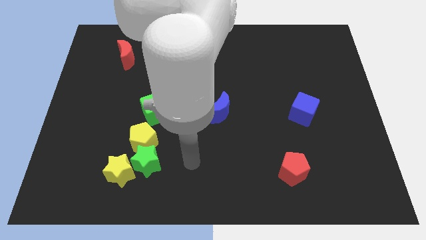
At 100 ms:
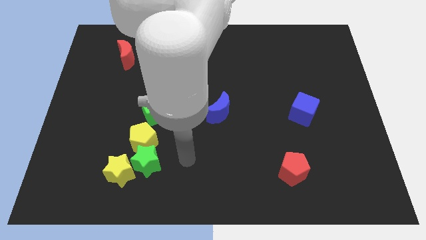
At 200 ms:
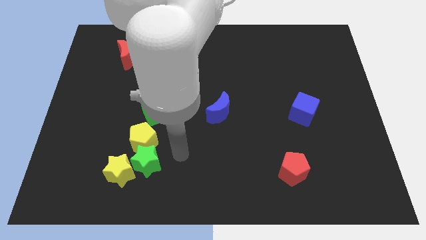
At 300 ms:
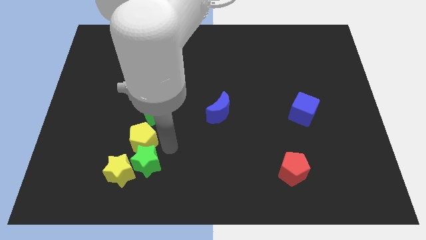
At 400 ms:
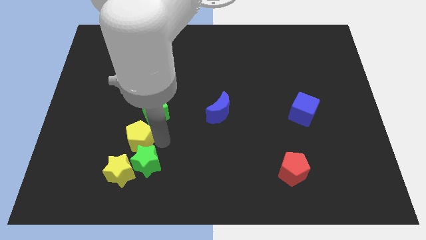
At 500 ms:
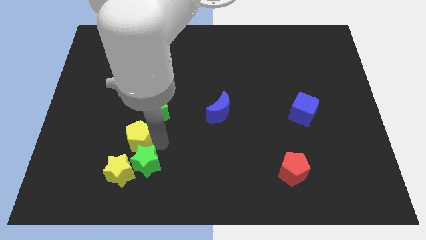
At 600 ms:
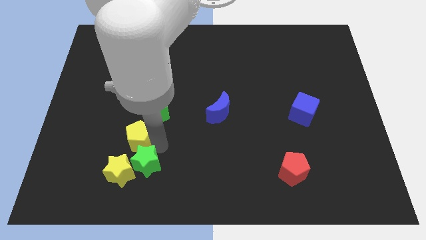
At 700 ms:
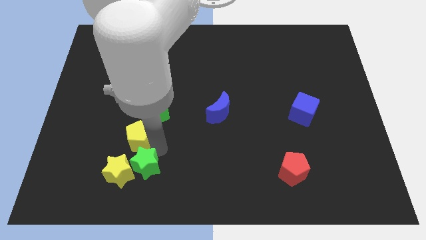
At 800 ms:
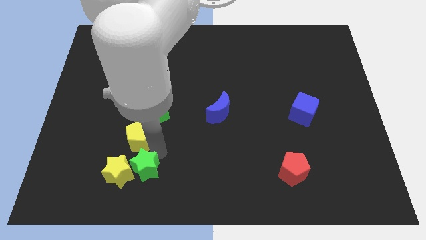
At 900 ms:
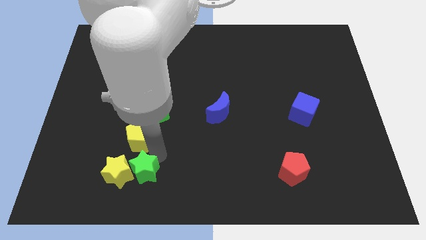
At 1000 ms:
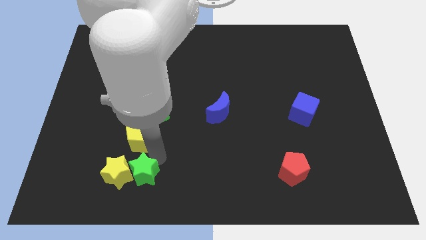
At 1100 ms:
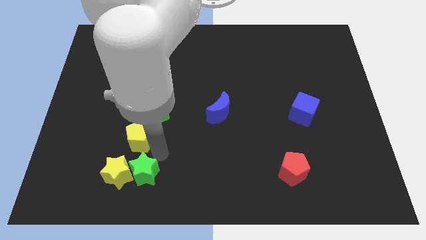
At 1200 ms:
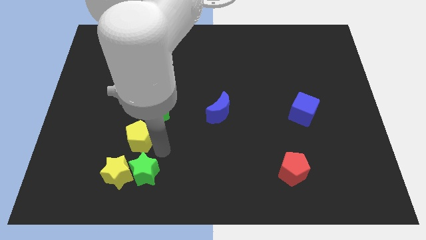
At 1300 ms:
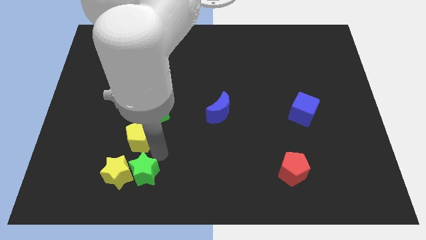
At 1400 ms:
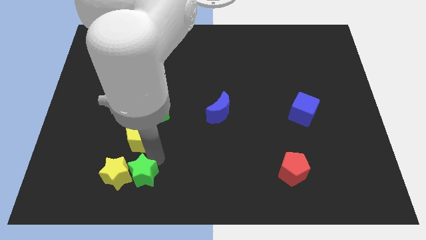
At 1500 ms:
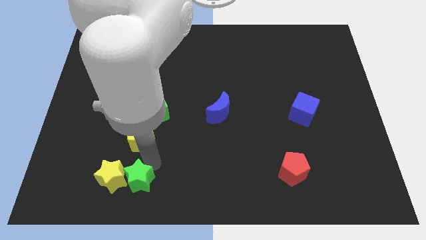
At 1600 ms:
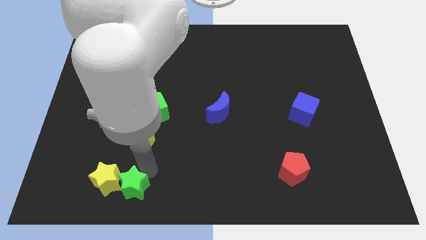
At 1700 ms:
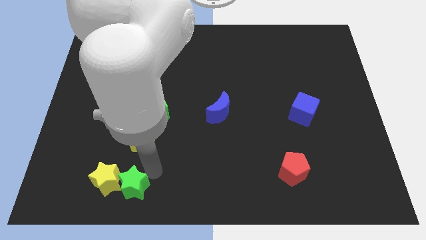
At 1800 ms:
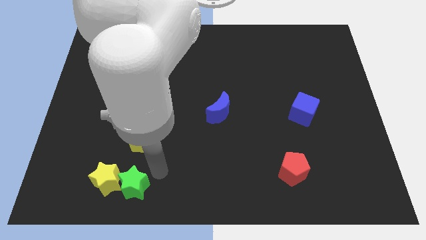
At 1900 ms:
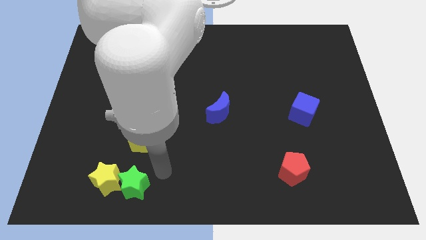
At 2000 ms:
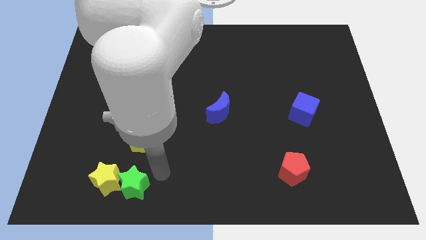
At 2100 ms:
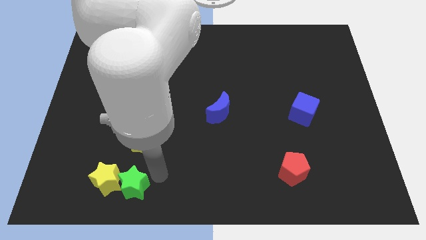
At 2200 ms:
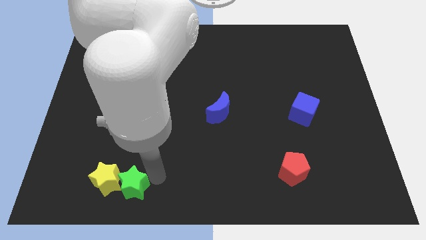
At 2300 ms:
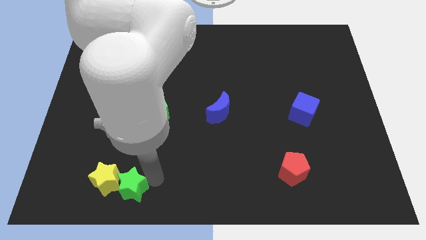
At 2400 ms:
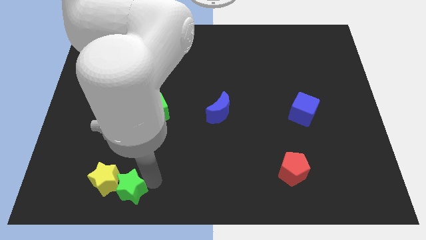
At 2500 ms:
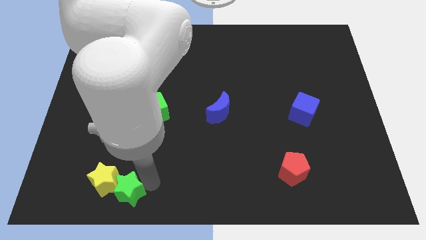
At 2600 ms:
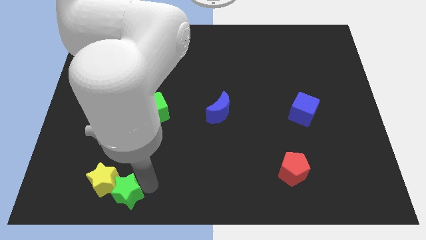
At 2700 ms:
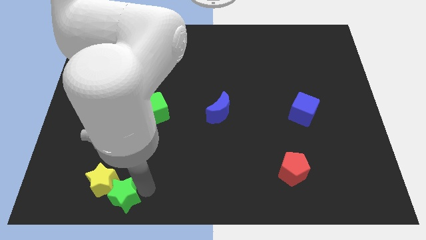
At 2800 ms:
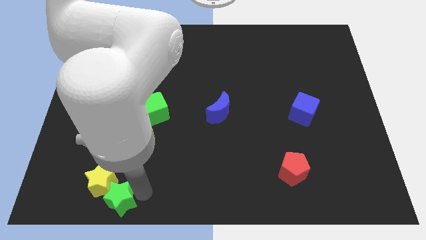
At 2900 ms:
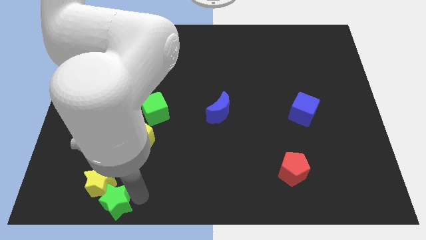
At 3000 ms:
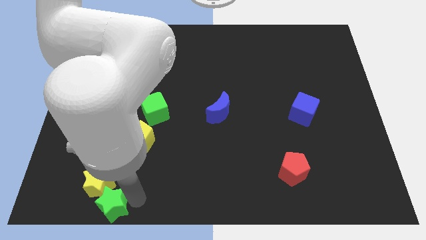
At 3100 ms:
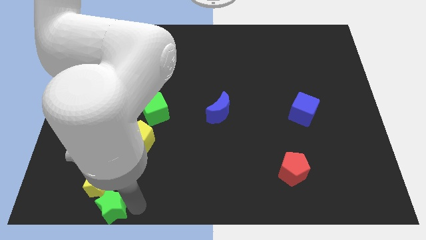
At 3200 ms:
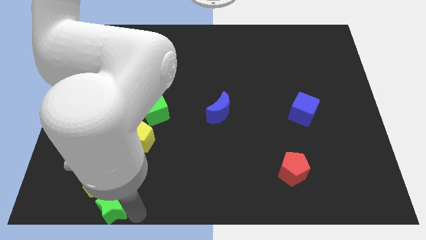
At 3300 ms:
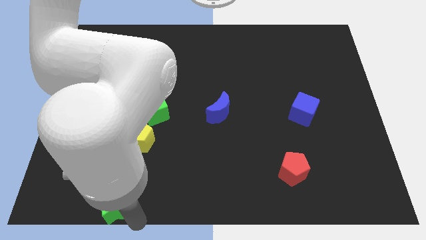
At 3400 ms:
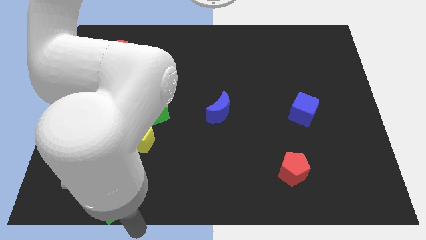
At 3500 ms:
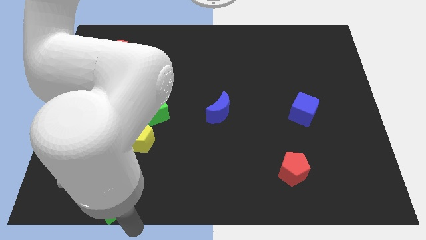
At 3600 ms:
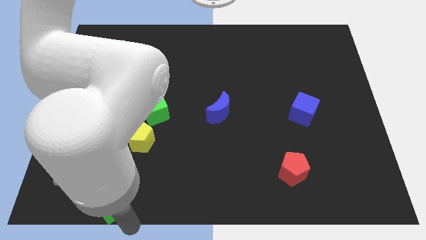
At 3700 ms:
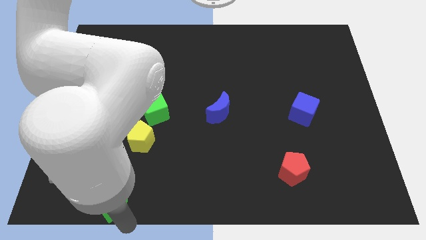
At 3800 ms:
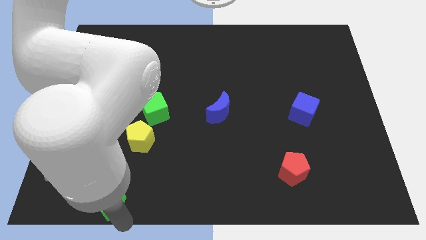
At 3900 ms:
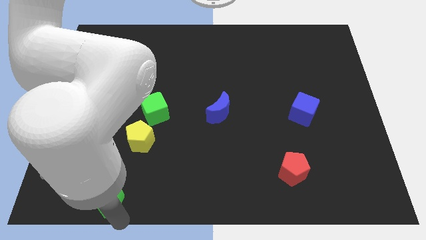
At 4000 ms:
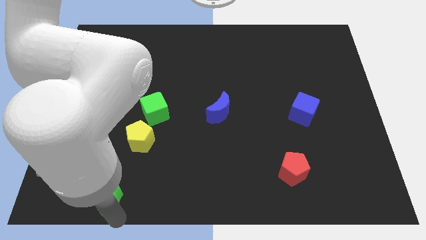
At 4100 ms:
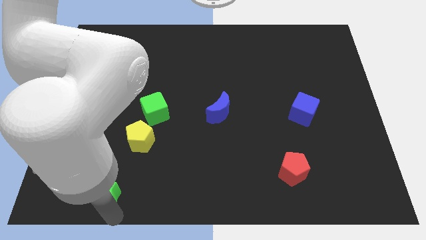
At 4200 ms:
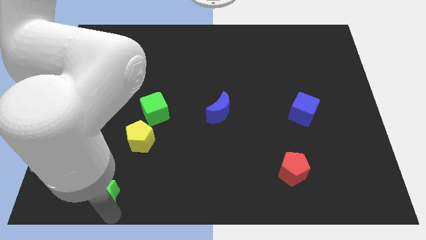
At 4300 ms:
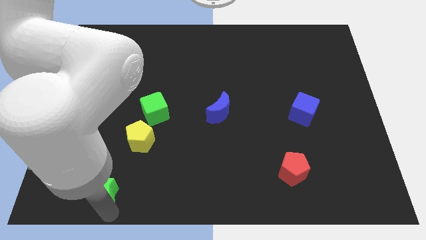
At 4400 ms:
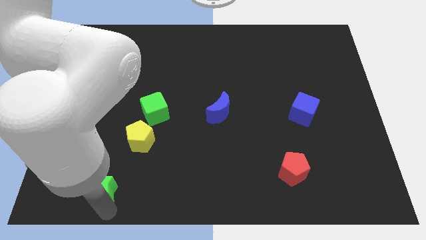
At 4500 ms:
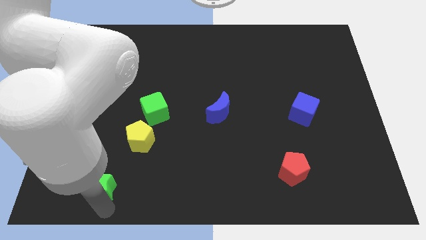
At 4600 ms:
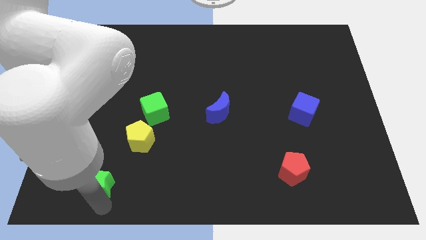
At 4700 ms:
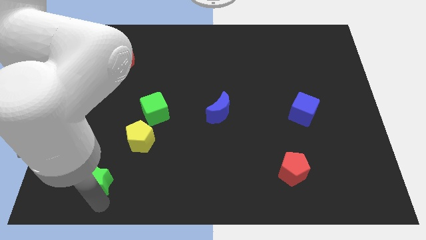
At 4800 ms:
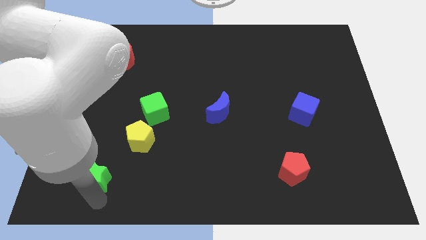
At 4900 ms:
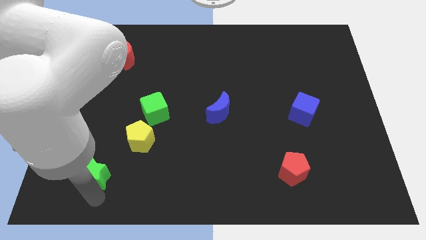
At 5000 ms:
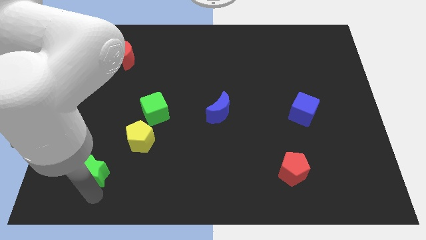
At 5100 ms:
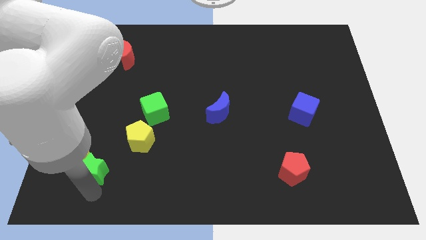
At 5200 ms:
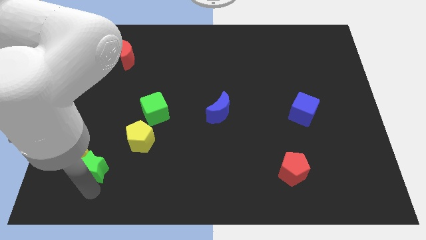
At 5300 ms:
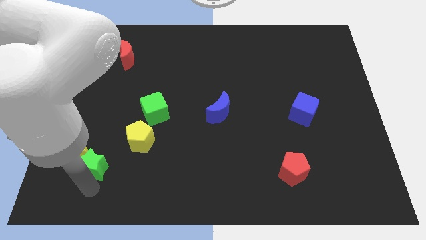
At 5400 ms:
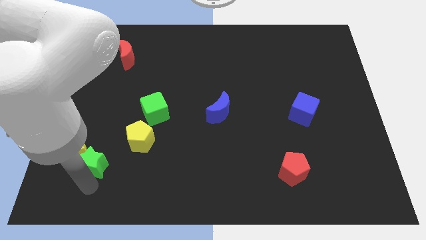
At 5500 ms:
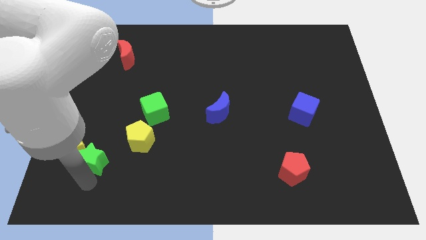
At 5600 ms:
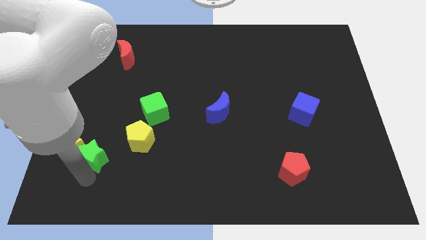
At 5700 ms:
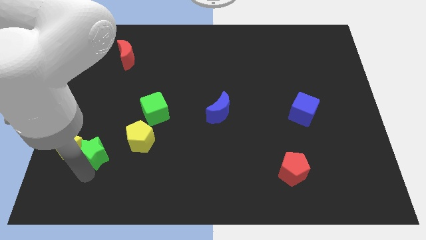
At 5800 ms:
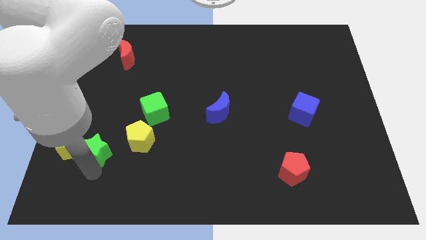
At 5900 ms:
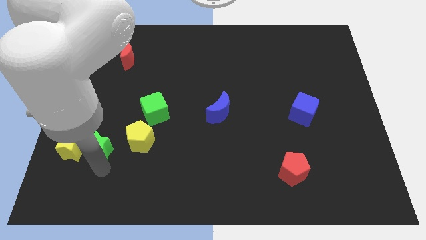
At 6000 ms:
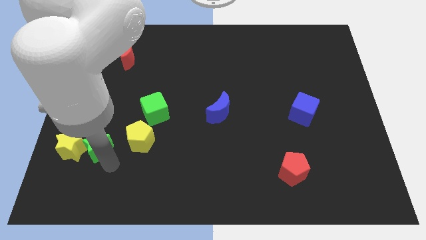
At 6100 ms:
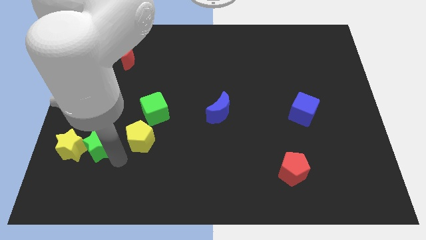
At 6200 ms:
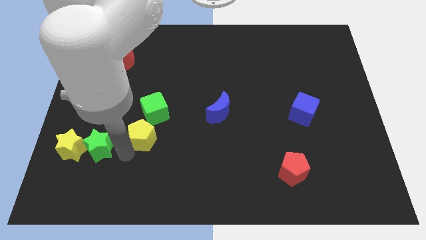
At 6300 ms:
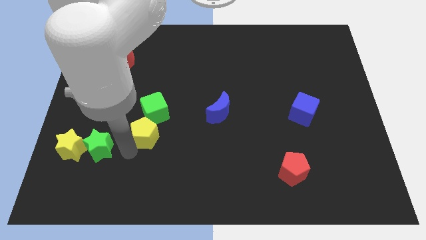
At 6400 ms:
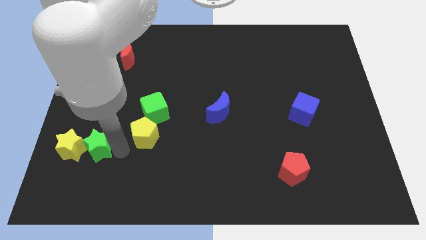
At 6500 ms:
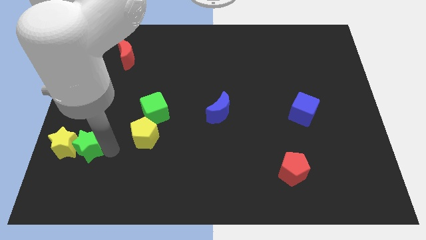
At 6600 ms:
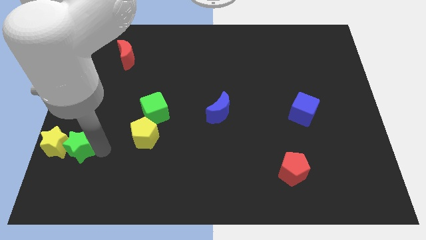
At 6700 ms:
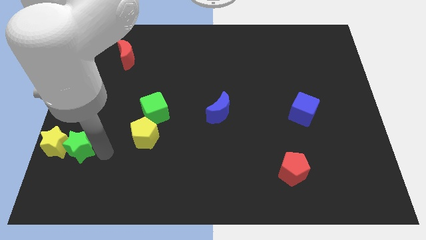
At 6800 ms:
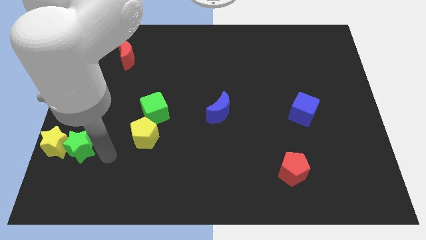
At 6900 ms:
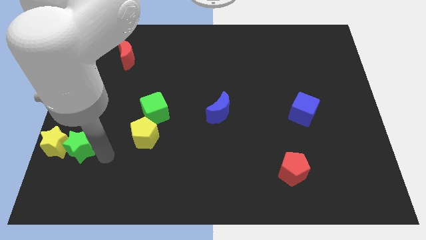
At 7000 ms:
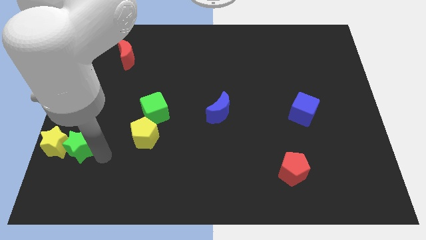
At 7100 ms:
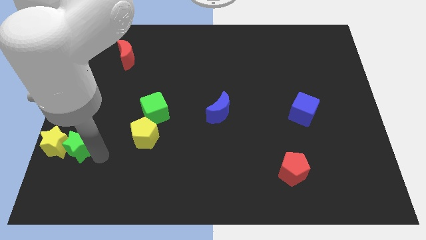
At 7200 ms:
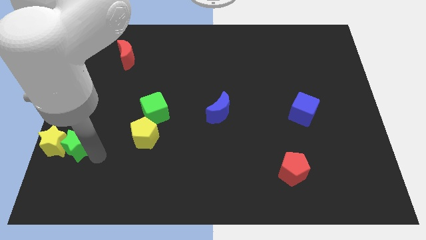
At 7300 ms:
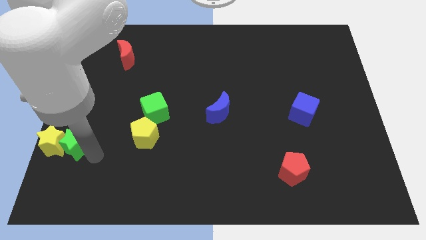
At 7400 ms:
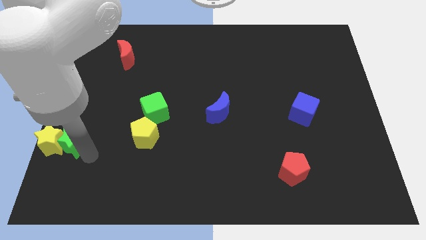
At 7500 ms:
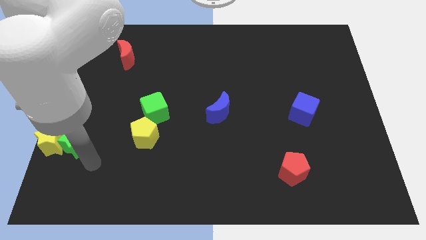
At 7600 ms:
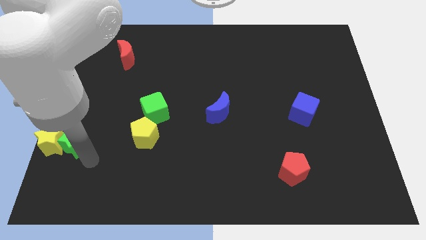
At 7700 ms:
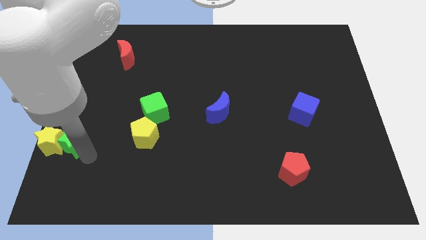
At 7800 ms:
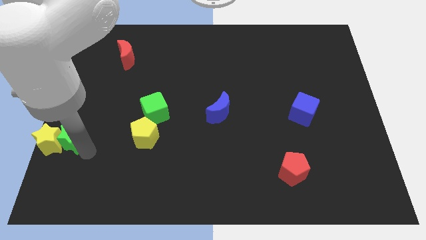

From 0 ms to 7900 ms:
push the green star to the left side of the board
